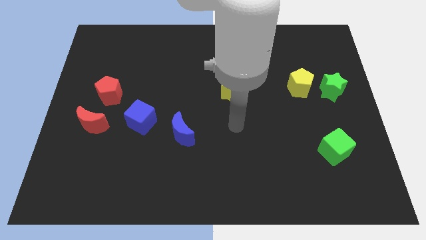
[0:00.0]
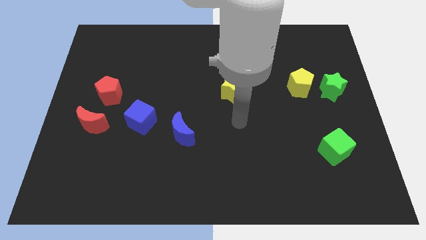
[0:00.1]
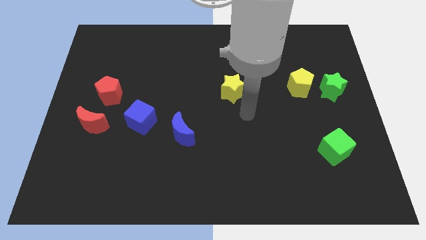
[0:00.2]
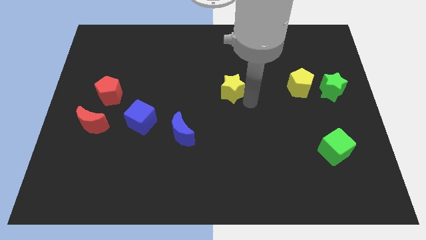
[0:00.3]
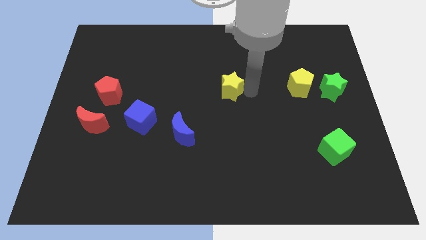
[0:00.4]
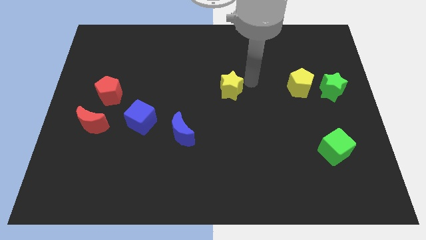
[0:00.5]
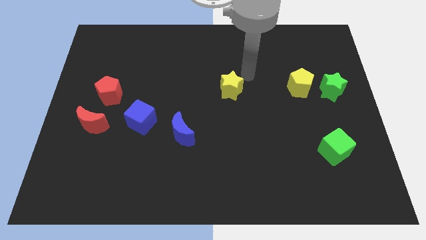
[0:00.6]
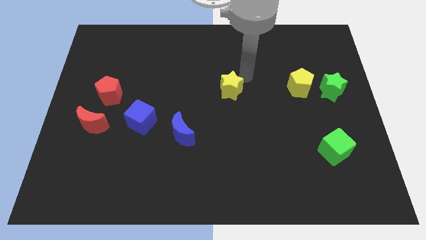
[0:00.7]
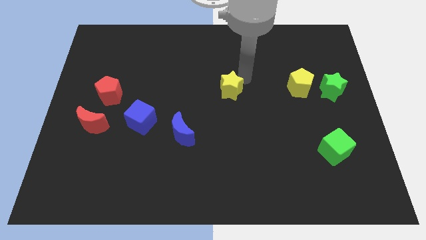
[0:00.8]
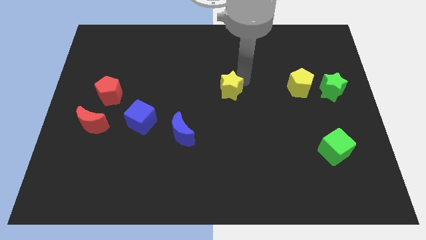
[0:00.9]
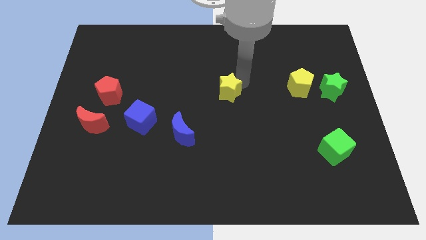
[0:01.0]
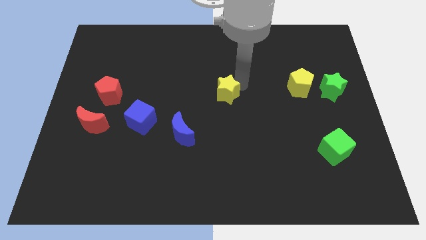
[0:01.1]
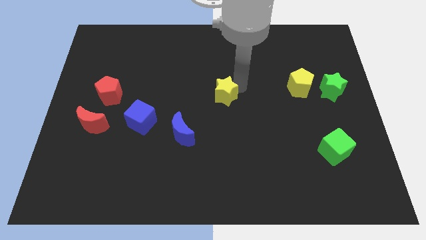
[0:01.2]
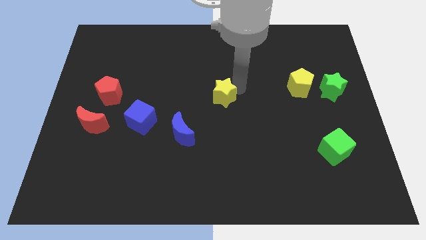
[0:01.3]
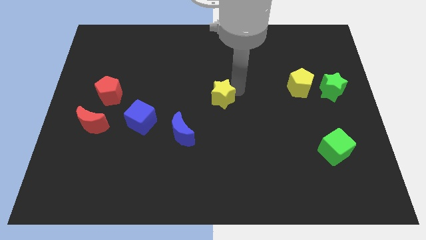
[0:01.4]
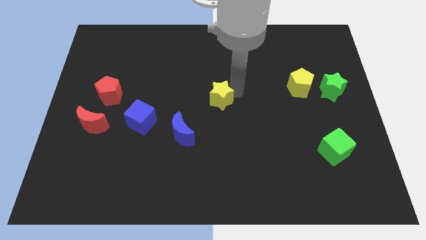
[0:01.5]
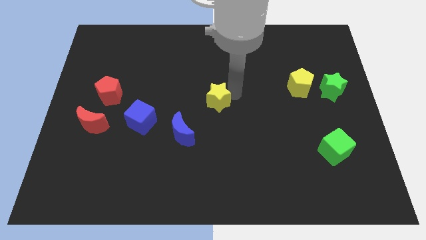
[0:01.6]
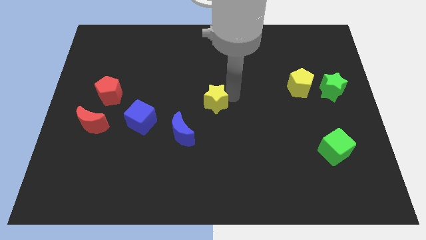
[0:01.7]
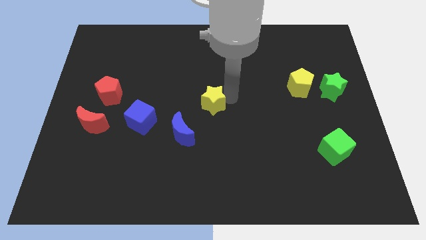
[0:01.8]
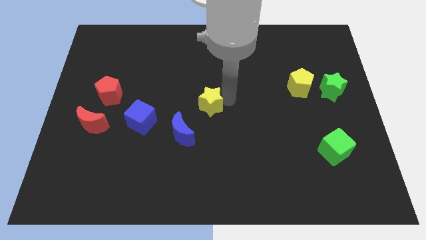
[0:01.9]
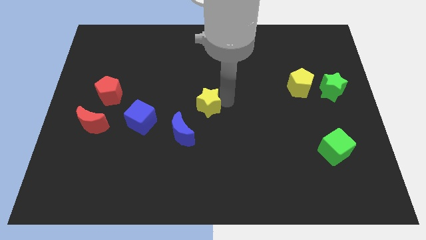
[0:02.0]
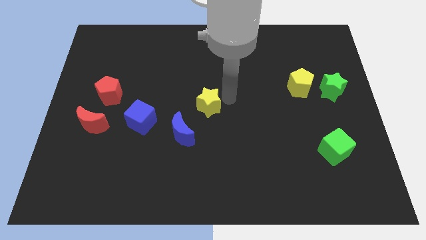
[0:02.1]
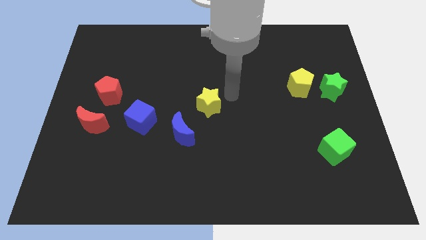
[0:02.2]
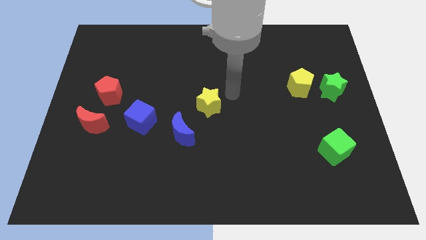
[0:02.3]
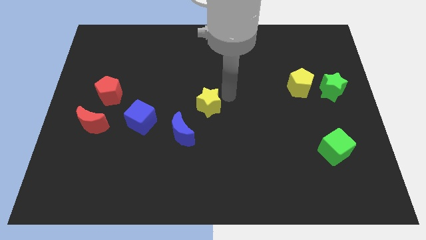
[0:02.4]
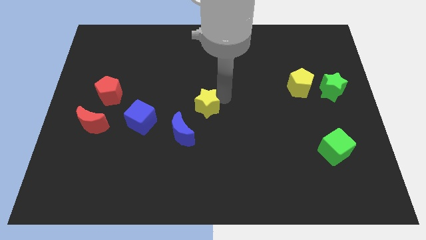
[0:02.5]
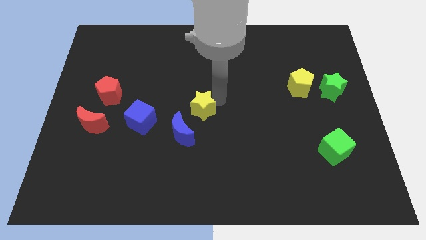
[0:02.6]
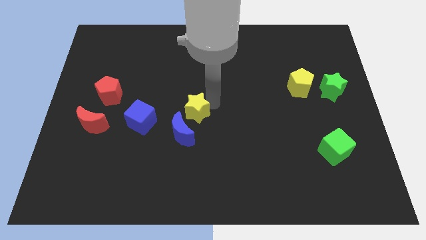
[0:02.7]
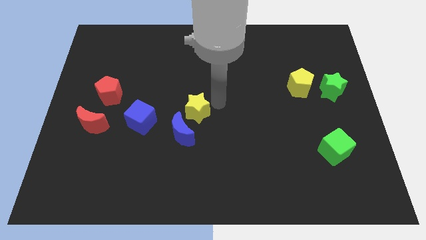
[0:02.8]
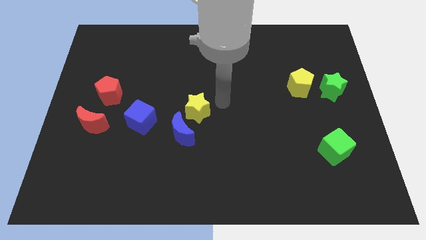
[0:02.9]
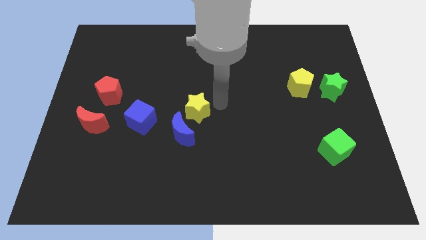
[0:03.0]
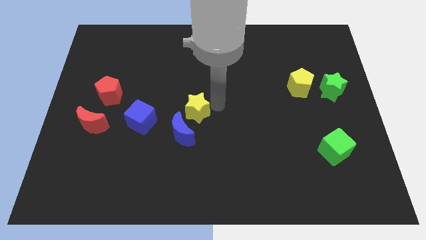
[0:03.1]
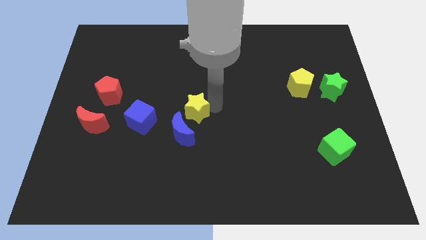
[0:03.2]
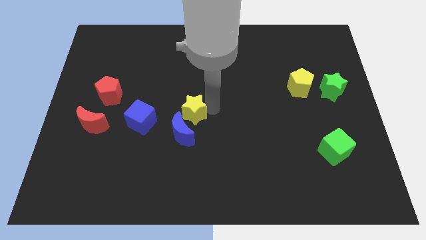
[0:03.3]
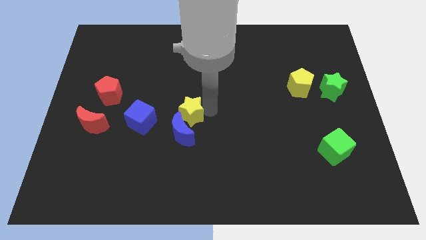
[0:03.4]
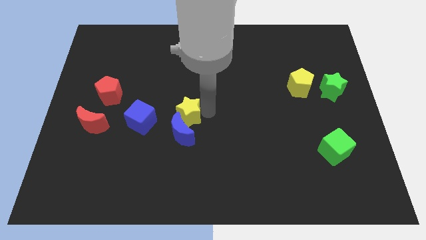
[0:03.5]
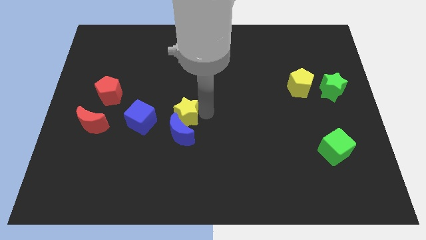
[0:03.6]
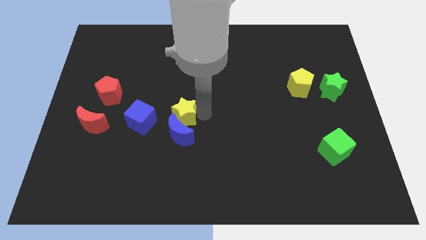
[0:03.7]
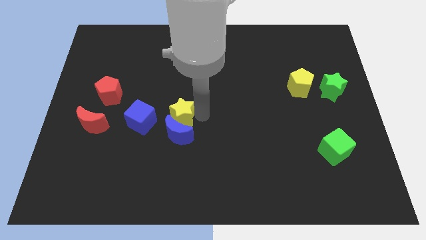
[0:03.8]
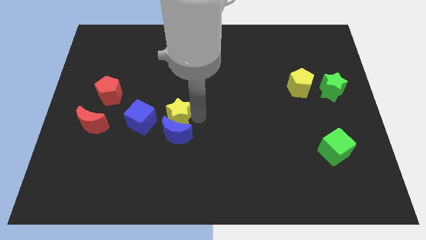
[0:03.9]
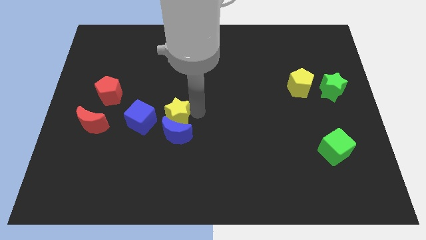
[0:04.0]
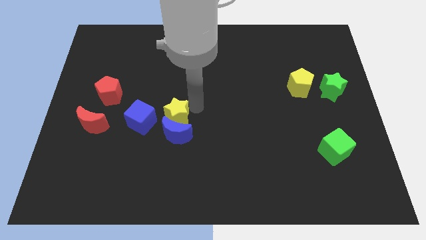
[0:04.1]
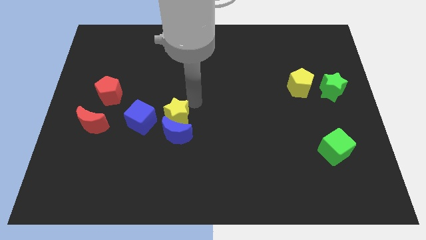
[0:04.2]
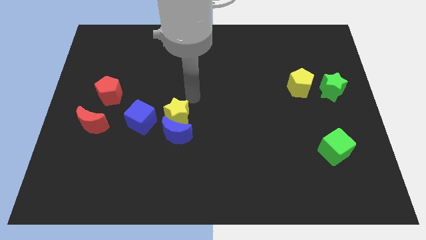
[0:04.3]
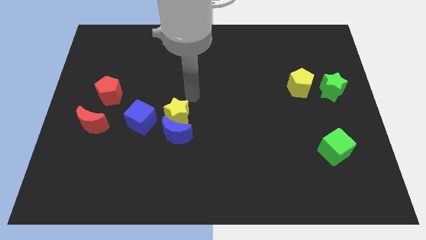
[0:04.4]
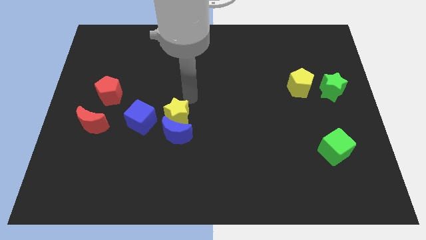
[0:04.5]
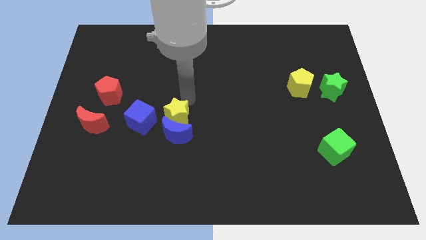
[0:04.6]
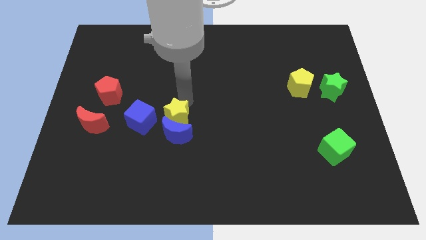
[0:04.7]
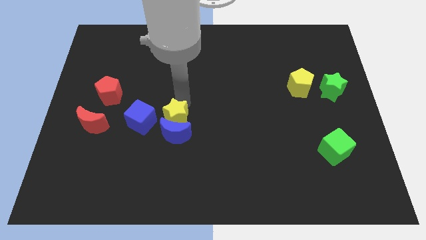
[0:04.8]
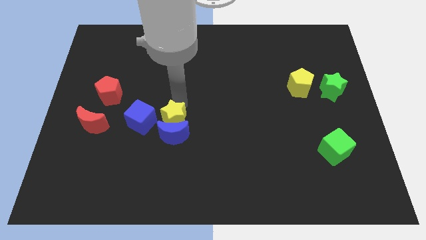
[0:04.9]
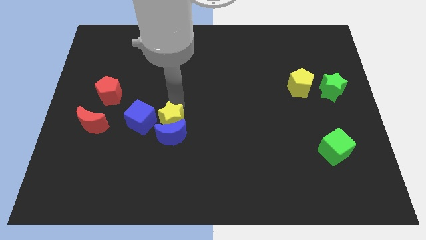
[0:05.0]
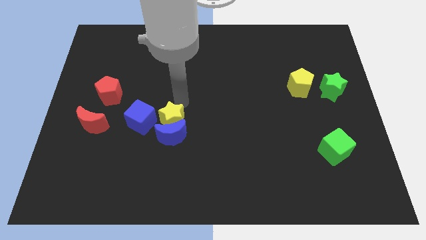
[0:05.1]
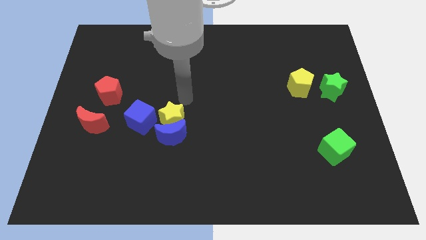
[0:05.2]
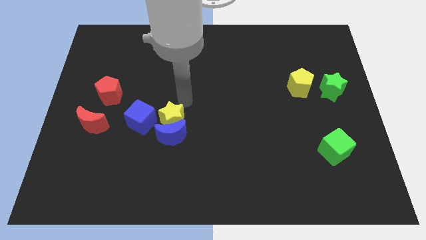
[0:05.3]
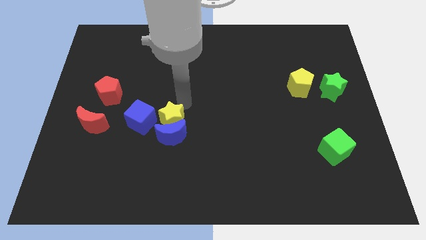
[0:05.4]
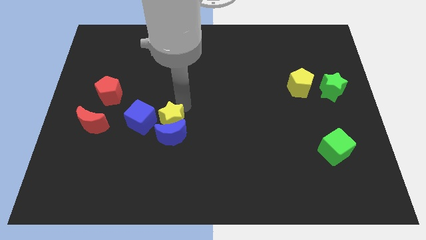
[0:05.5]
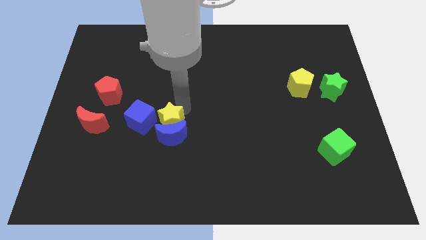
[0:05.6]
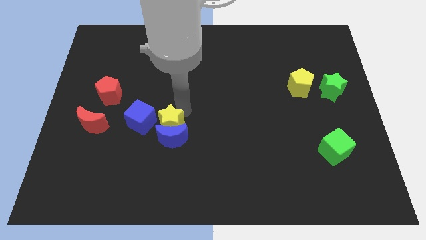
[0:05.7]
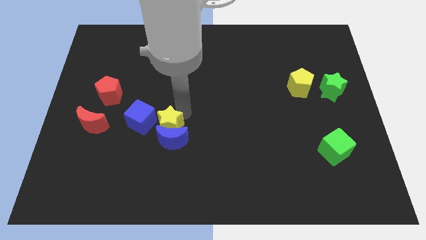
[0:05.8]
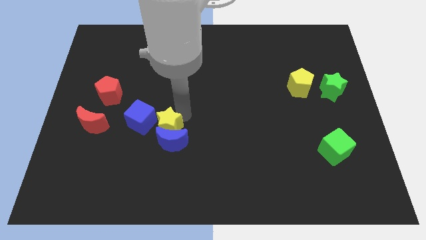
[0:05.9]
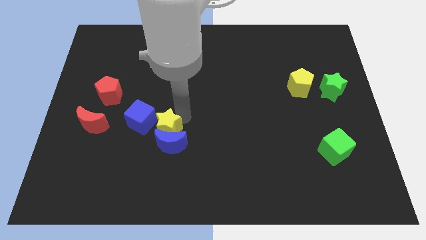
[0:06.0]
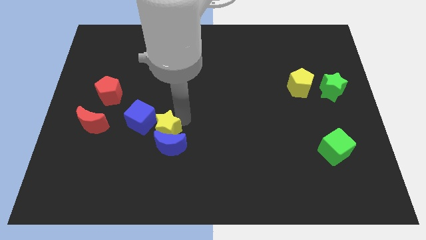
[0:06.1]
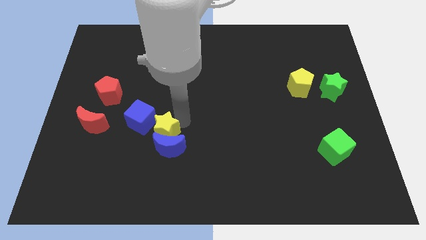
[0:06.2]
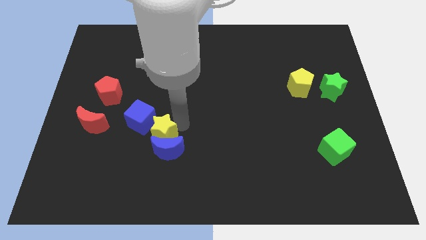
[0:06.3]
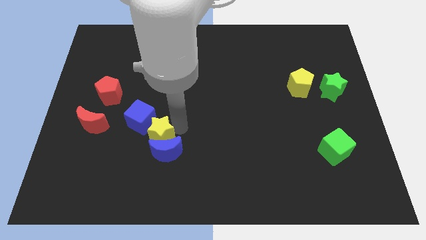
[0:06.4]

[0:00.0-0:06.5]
move the yellow star downwards and then left

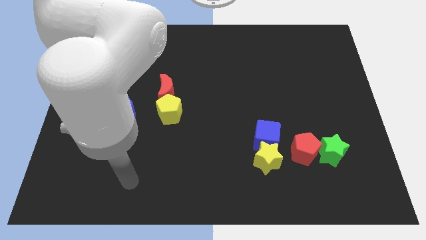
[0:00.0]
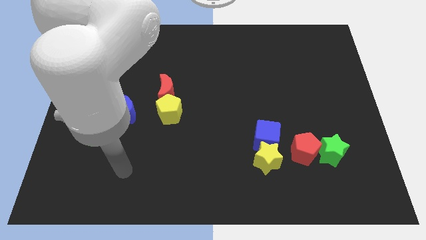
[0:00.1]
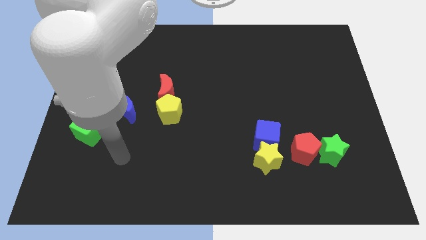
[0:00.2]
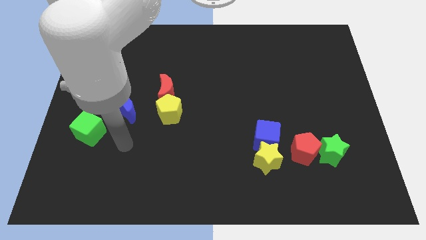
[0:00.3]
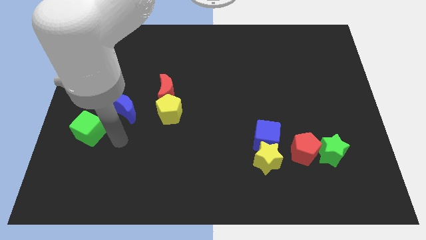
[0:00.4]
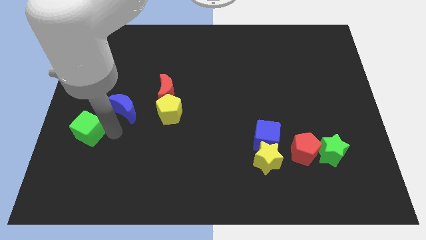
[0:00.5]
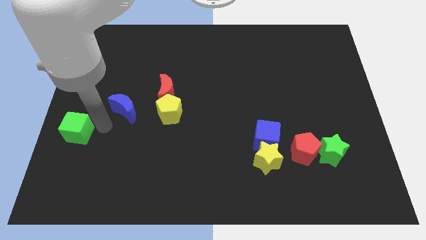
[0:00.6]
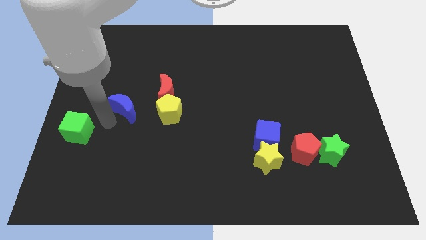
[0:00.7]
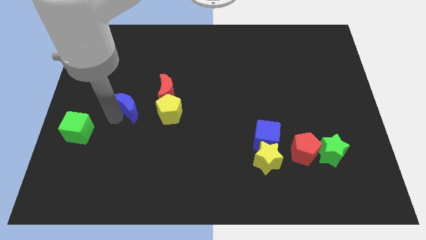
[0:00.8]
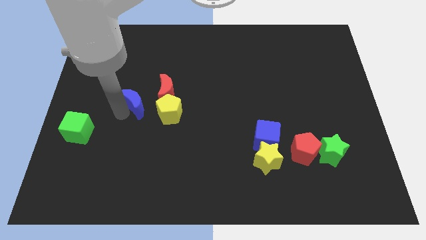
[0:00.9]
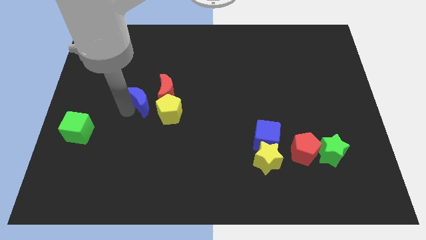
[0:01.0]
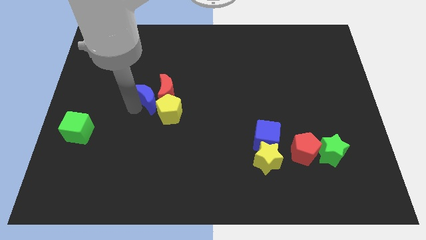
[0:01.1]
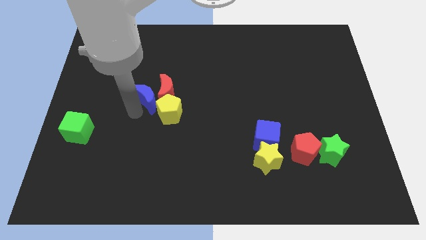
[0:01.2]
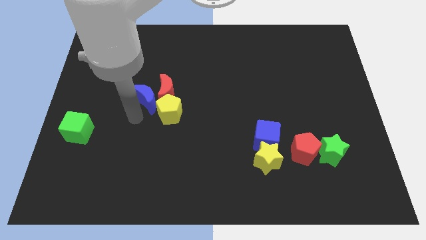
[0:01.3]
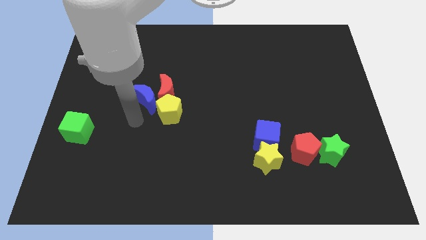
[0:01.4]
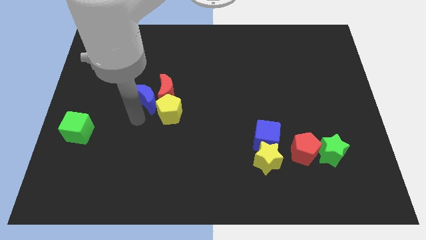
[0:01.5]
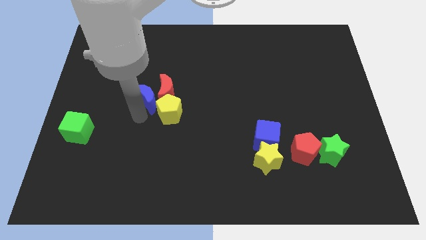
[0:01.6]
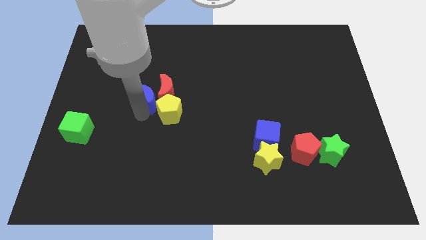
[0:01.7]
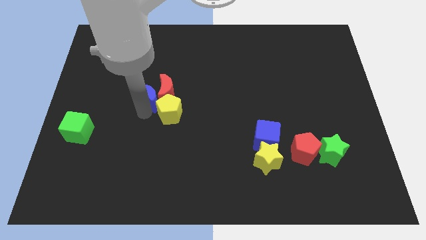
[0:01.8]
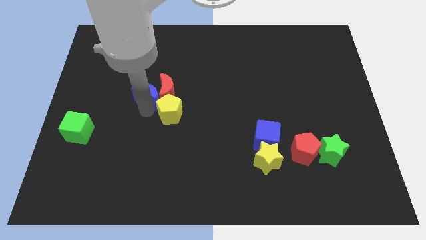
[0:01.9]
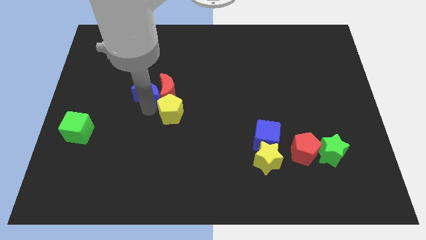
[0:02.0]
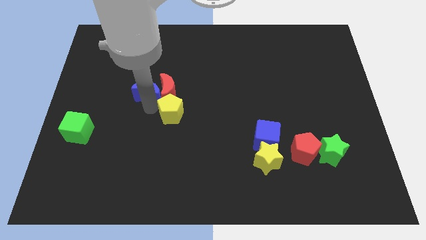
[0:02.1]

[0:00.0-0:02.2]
push the blue moon up and then right a bit
